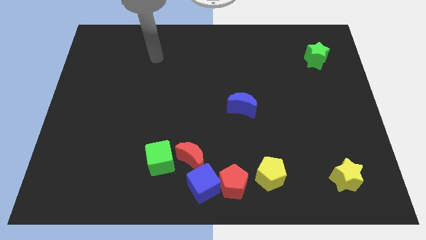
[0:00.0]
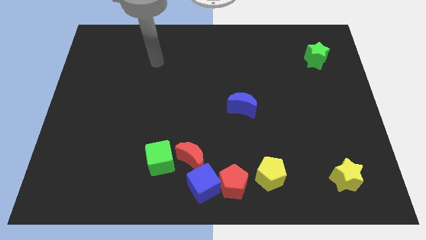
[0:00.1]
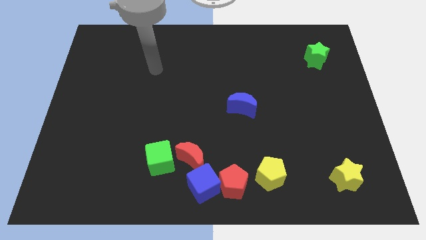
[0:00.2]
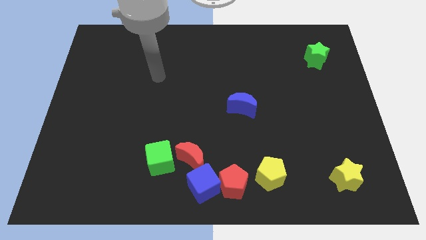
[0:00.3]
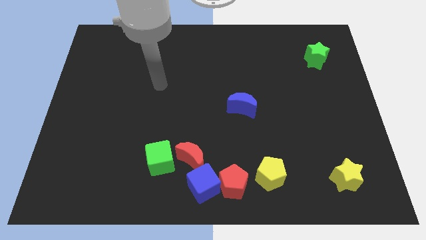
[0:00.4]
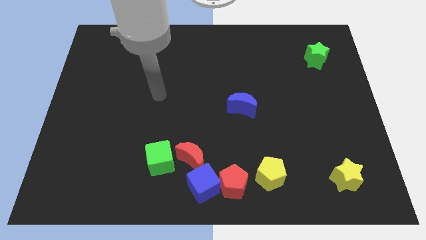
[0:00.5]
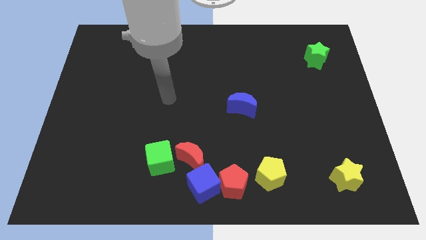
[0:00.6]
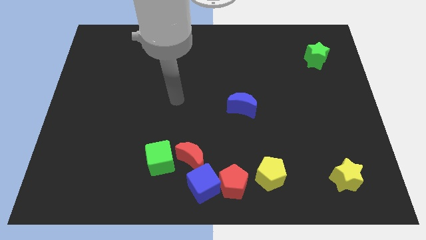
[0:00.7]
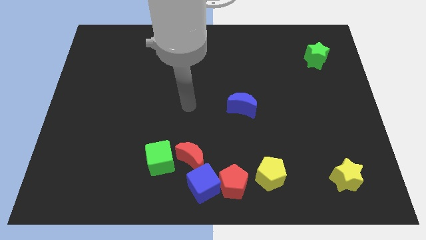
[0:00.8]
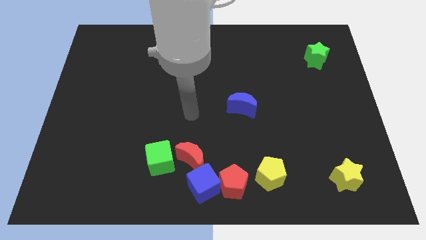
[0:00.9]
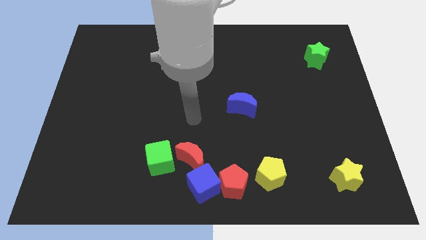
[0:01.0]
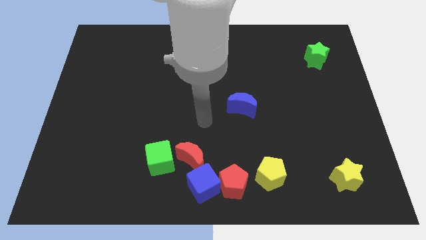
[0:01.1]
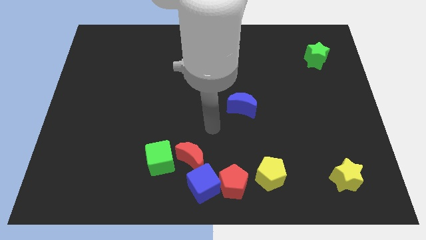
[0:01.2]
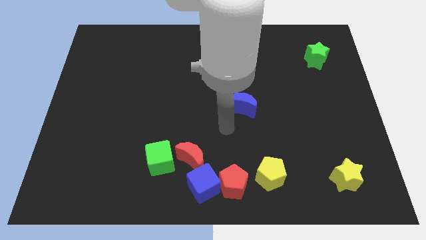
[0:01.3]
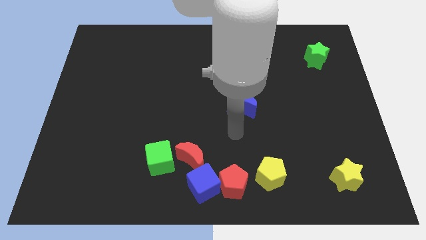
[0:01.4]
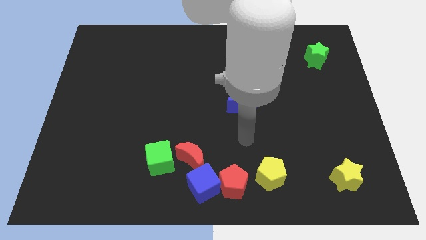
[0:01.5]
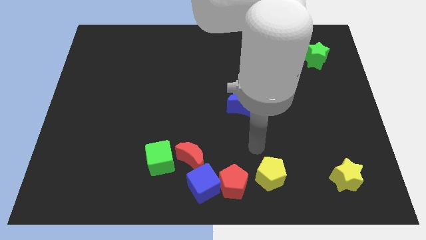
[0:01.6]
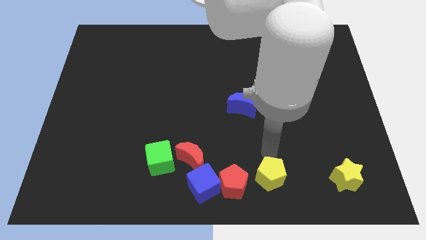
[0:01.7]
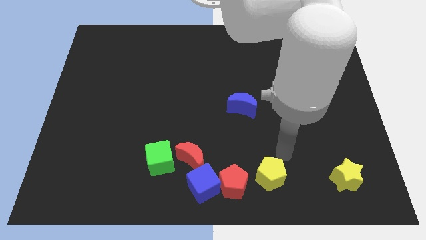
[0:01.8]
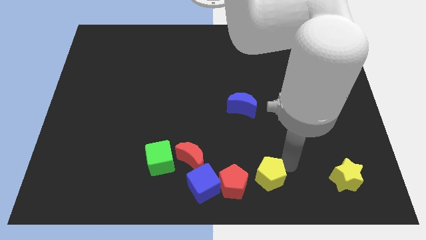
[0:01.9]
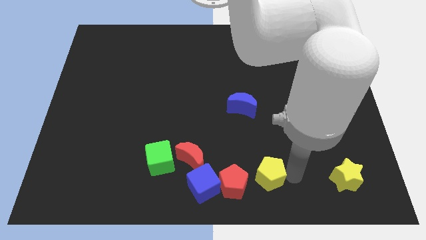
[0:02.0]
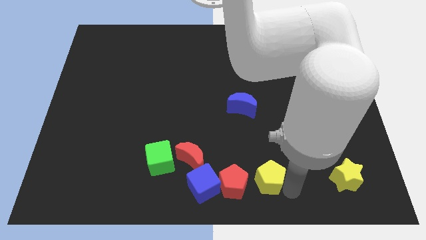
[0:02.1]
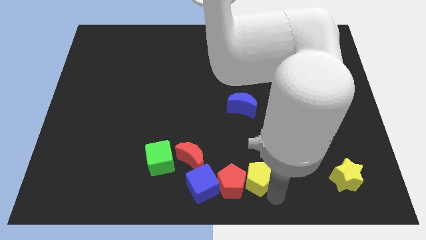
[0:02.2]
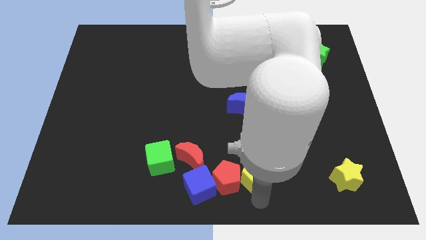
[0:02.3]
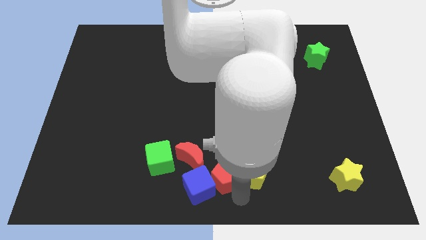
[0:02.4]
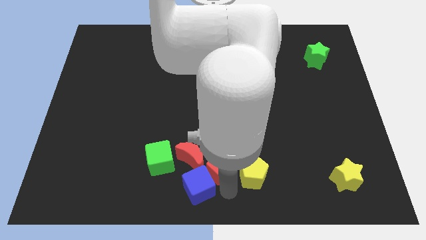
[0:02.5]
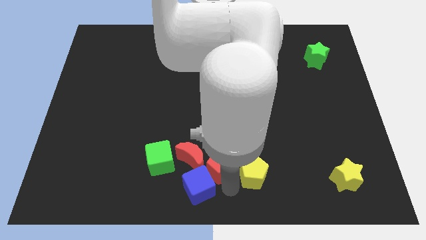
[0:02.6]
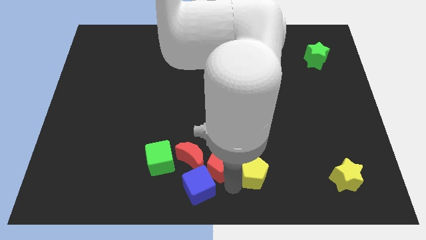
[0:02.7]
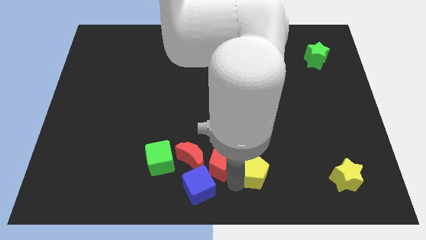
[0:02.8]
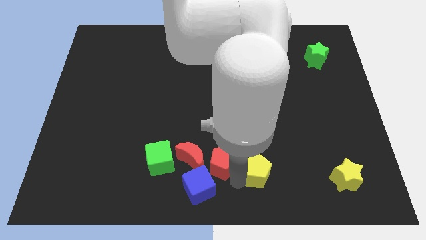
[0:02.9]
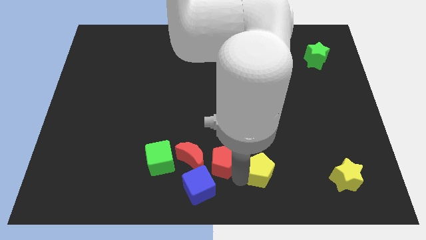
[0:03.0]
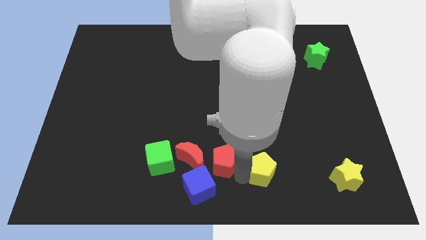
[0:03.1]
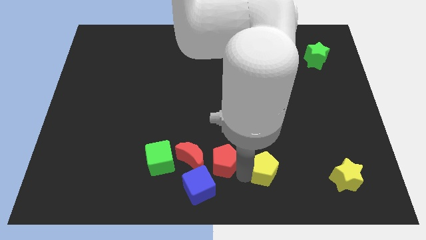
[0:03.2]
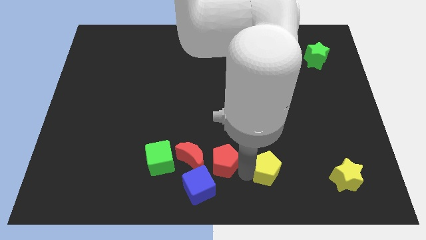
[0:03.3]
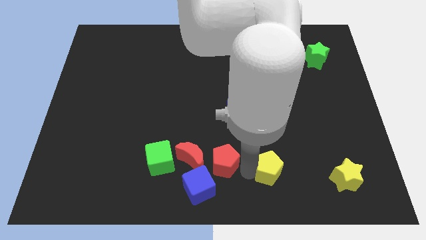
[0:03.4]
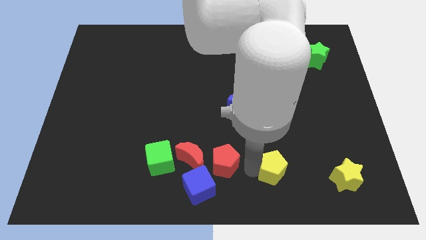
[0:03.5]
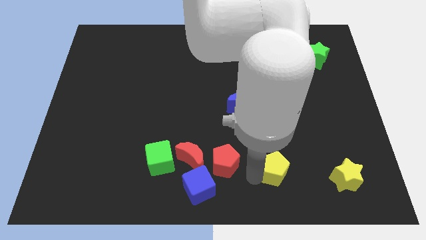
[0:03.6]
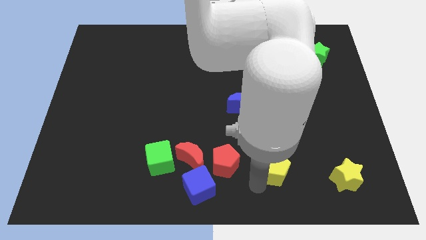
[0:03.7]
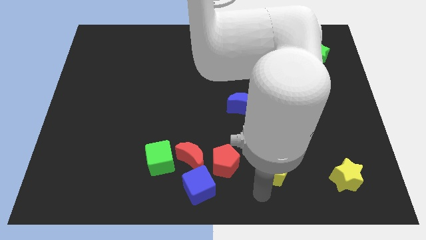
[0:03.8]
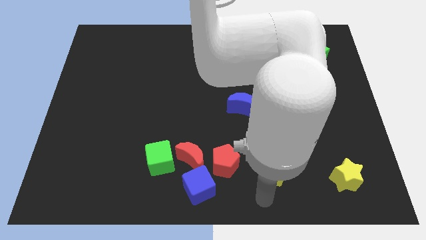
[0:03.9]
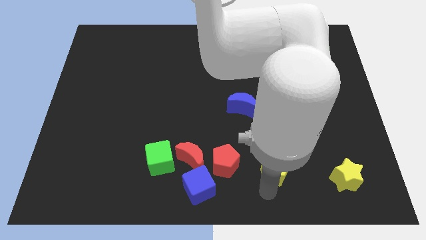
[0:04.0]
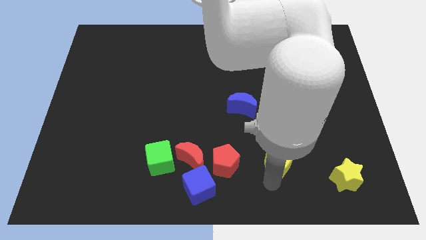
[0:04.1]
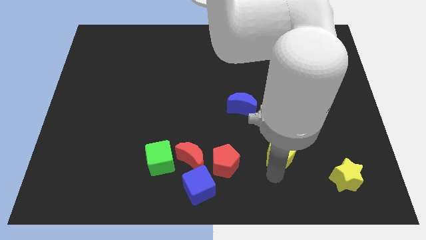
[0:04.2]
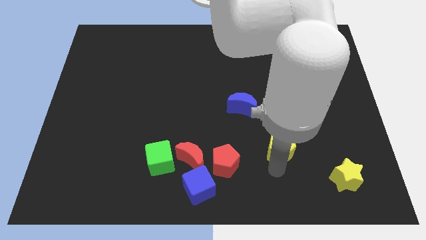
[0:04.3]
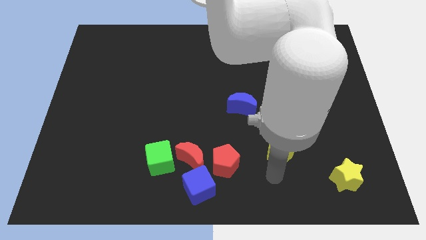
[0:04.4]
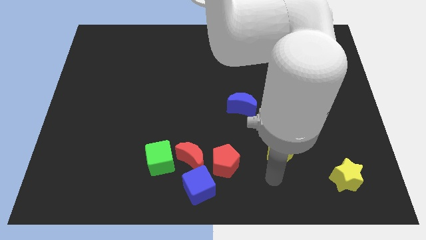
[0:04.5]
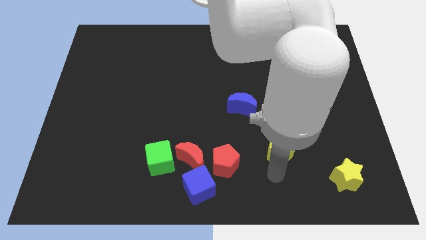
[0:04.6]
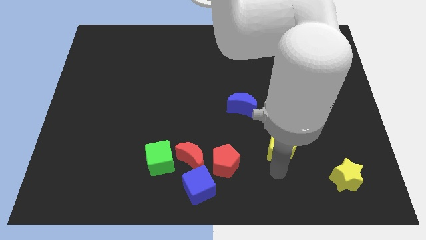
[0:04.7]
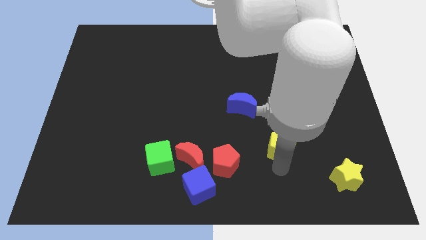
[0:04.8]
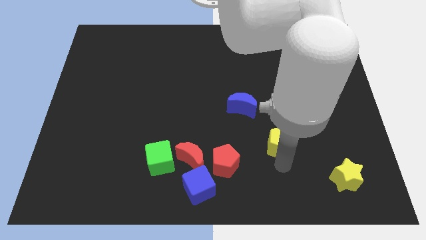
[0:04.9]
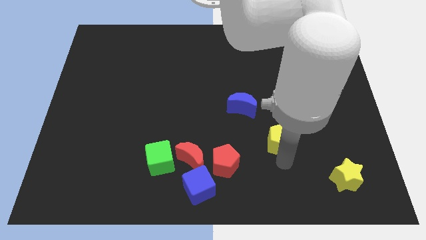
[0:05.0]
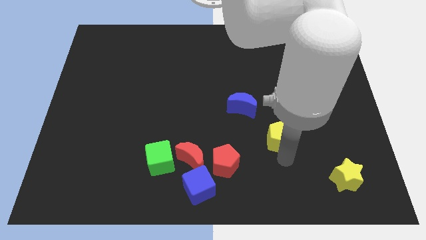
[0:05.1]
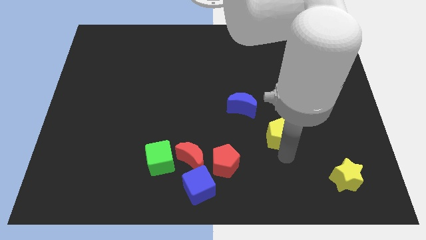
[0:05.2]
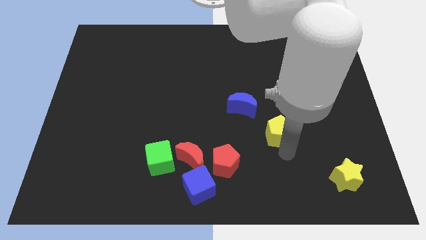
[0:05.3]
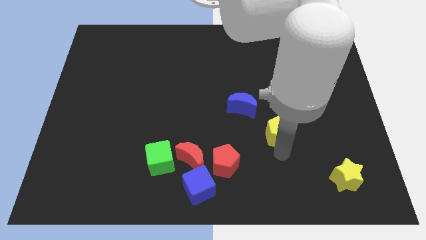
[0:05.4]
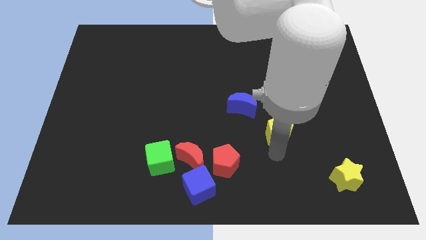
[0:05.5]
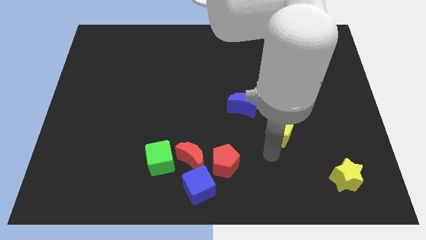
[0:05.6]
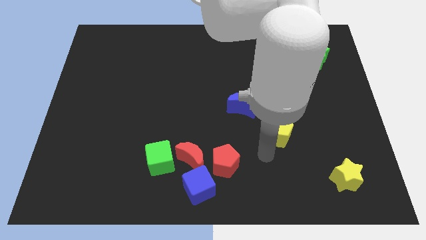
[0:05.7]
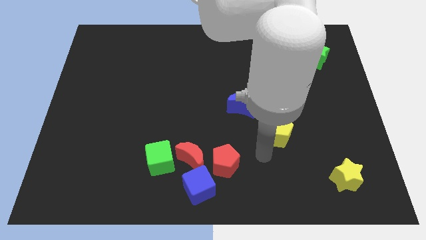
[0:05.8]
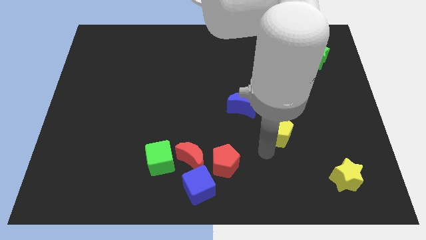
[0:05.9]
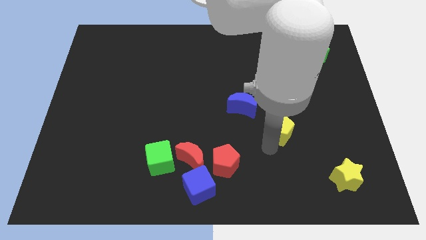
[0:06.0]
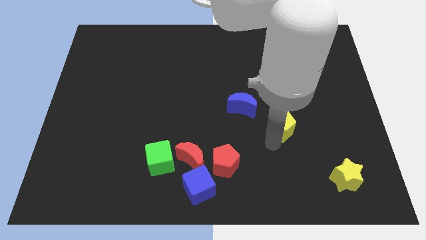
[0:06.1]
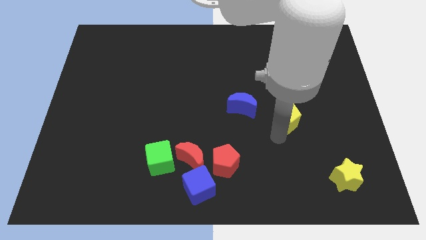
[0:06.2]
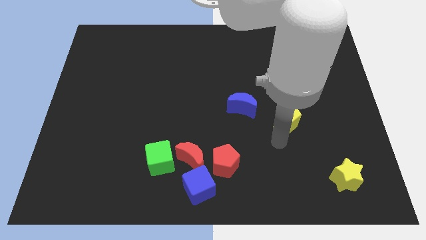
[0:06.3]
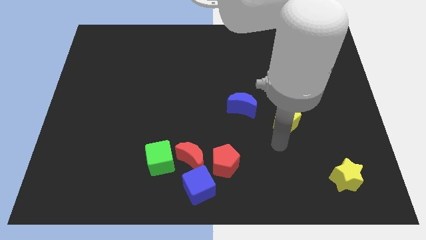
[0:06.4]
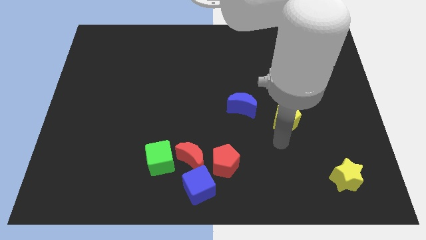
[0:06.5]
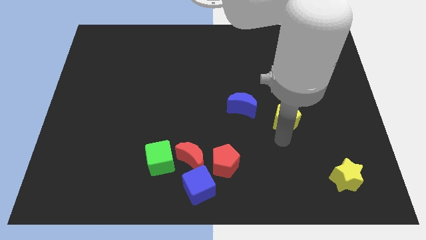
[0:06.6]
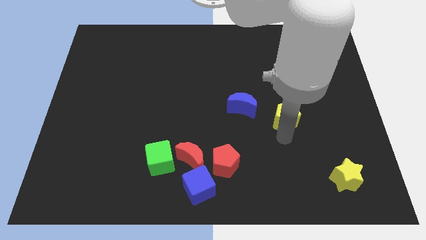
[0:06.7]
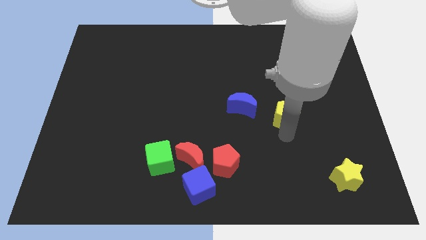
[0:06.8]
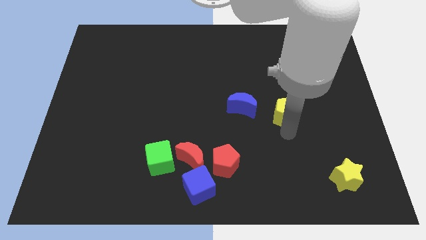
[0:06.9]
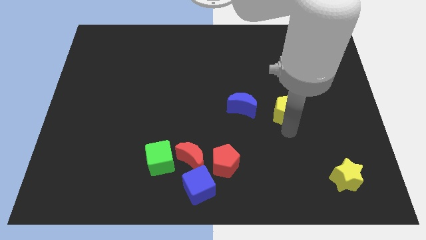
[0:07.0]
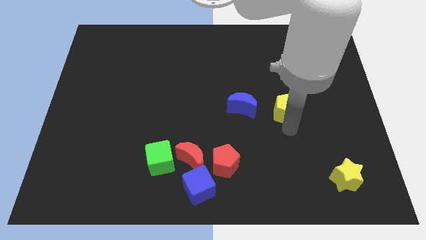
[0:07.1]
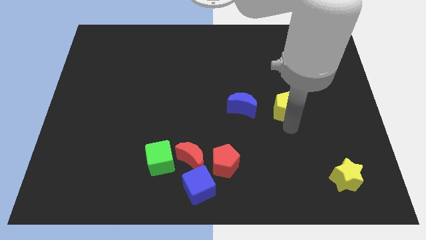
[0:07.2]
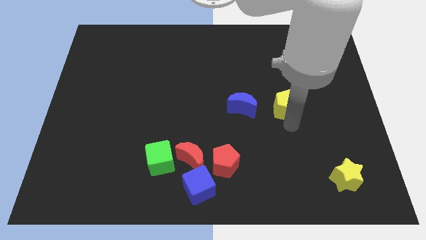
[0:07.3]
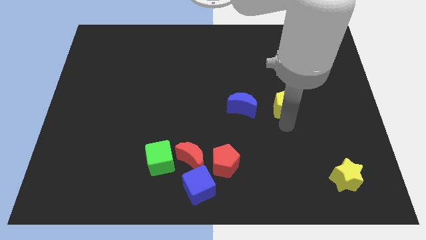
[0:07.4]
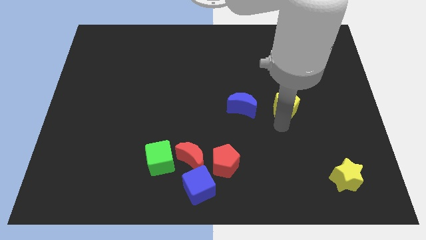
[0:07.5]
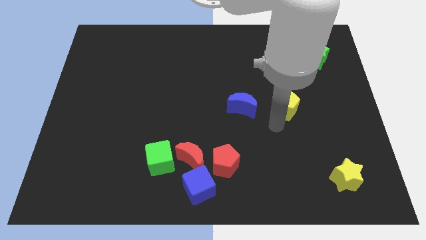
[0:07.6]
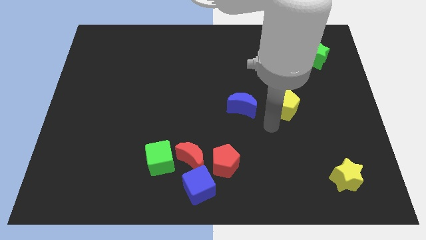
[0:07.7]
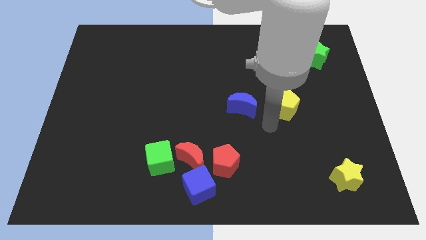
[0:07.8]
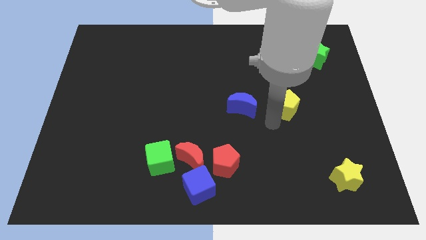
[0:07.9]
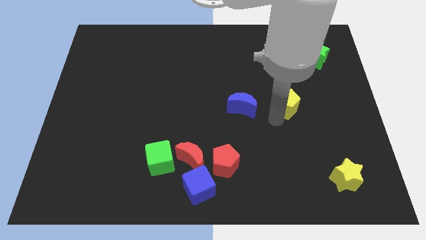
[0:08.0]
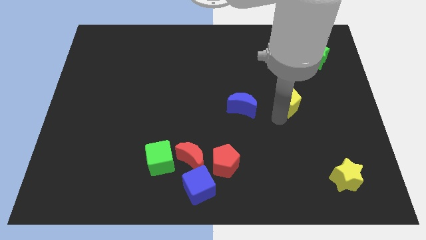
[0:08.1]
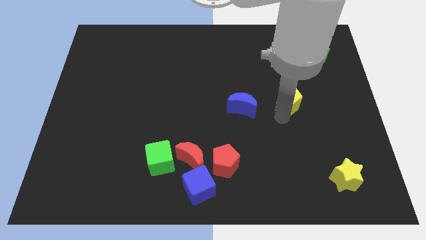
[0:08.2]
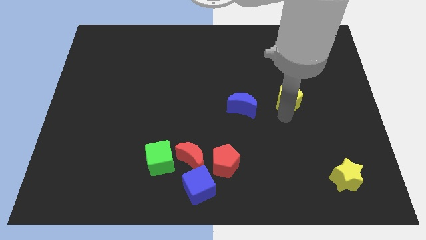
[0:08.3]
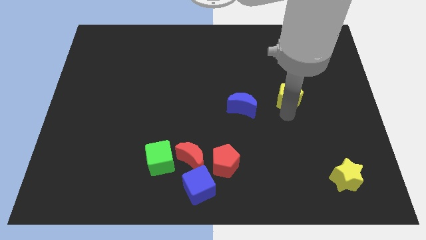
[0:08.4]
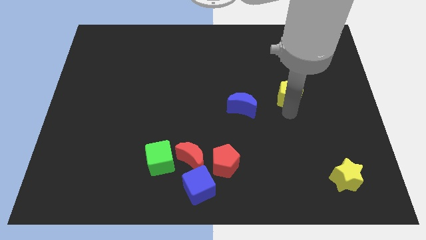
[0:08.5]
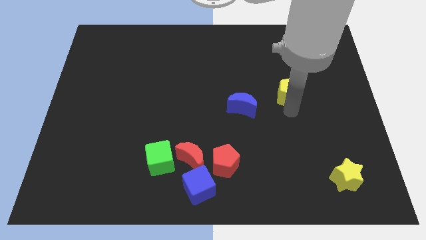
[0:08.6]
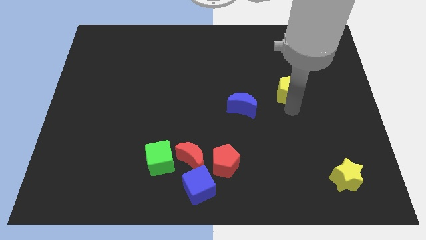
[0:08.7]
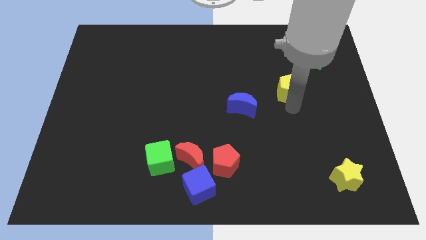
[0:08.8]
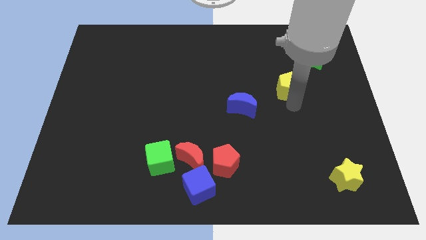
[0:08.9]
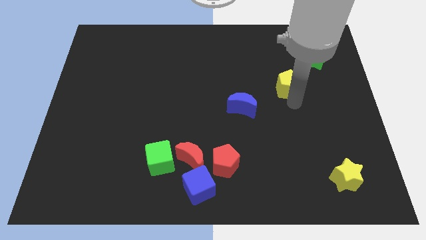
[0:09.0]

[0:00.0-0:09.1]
put the yellow pentagon to the bottom left of the green star
